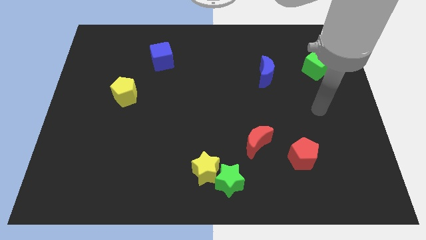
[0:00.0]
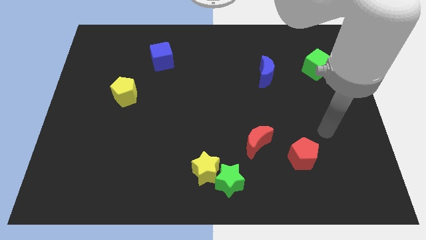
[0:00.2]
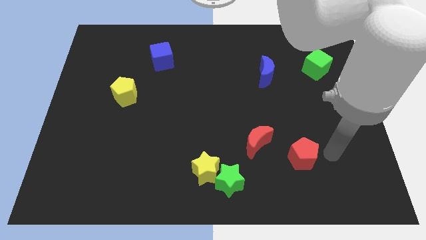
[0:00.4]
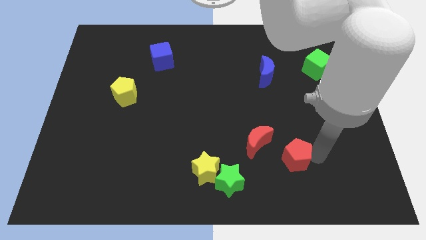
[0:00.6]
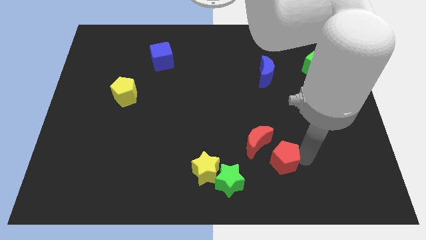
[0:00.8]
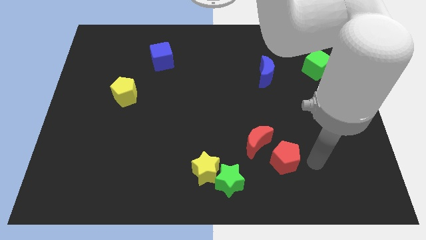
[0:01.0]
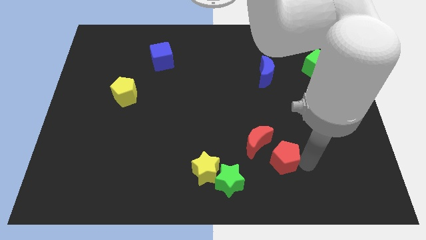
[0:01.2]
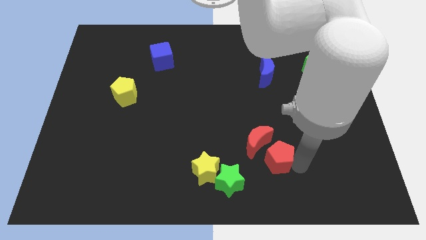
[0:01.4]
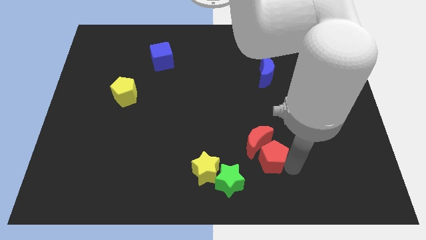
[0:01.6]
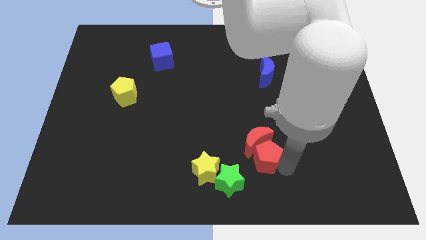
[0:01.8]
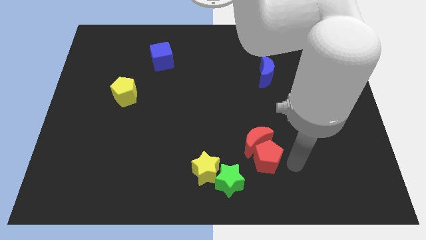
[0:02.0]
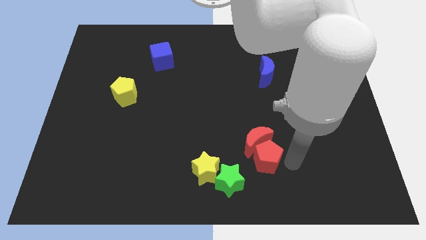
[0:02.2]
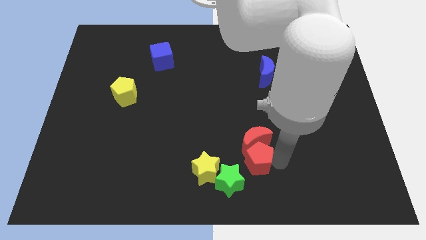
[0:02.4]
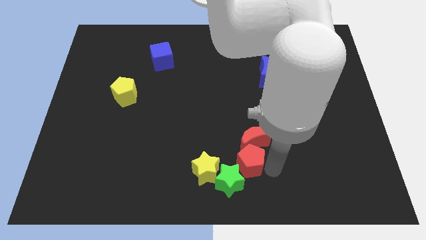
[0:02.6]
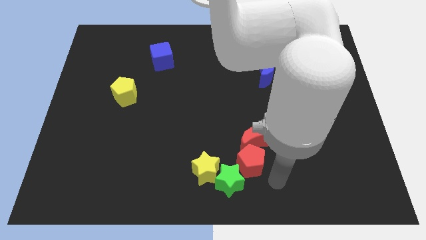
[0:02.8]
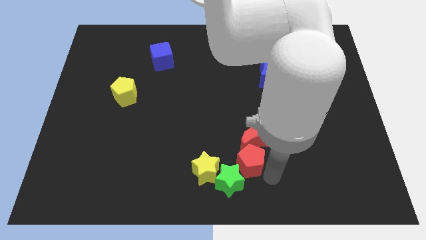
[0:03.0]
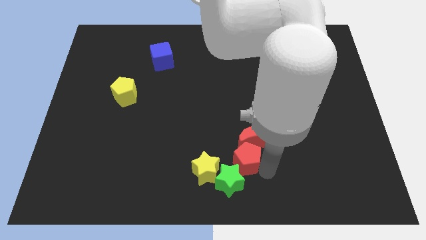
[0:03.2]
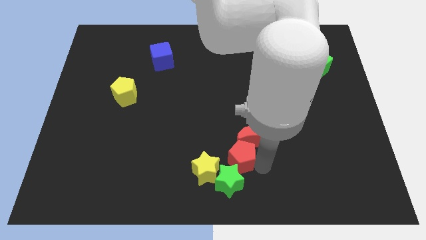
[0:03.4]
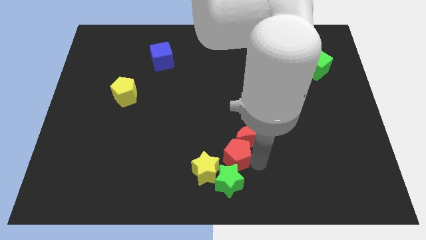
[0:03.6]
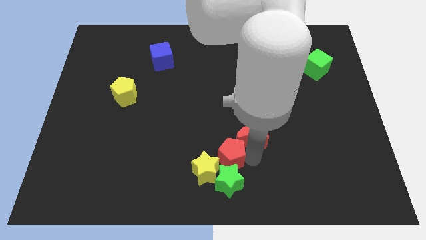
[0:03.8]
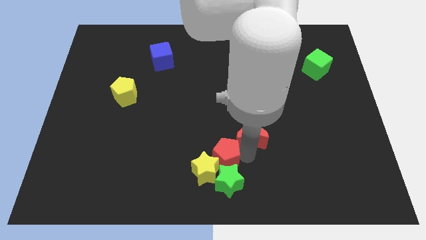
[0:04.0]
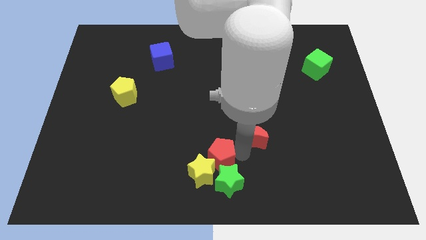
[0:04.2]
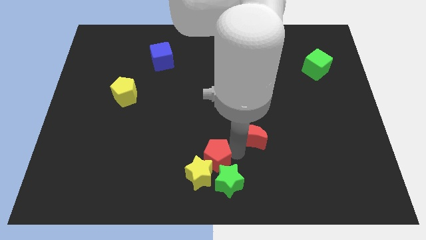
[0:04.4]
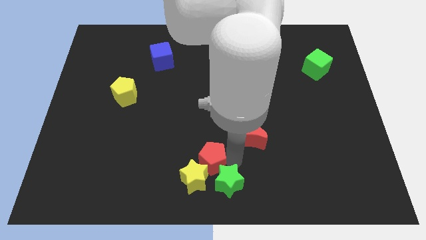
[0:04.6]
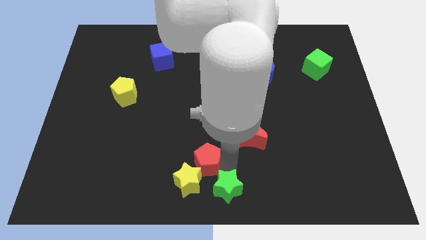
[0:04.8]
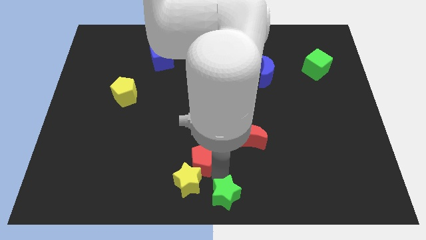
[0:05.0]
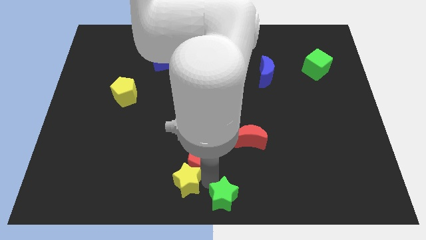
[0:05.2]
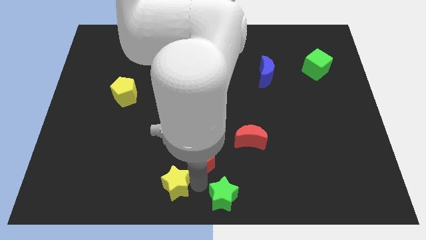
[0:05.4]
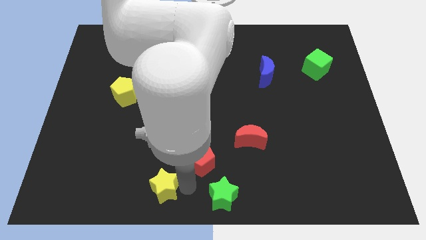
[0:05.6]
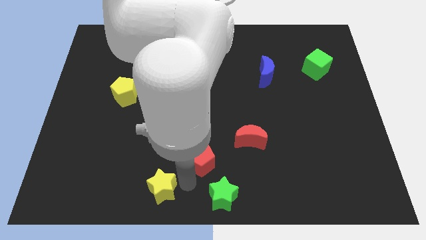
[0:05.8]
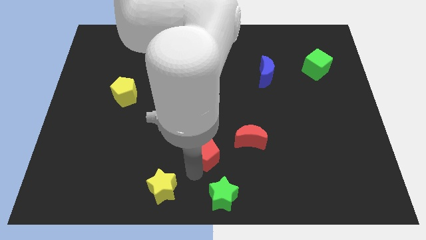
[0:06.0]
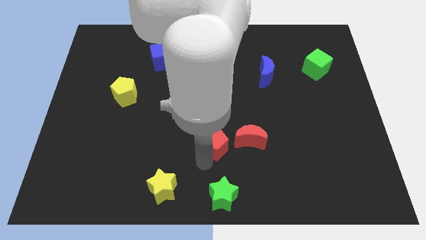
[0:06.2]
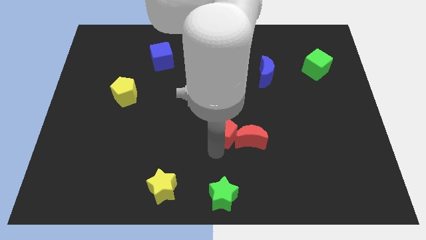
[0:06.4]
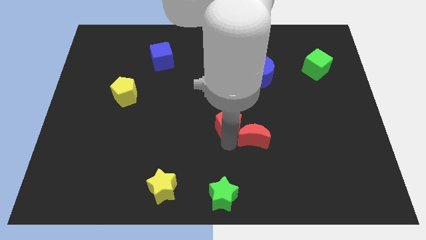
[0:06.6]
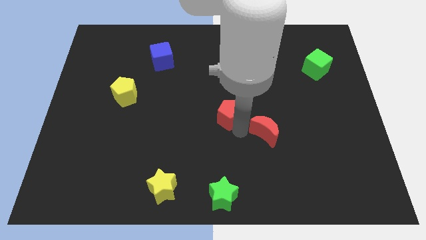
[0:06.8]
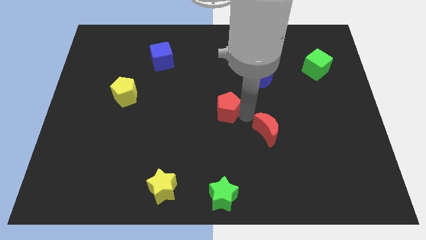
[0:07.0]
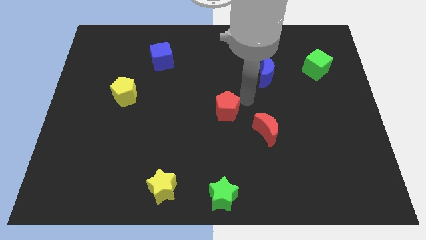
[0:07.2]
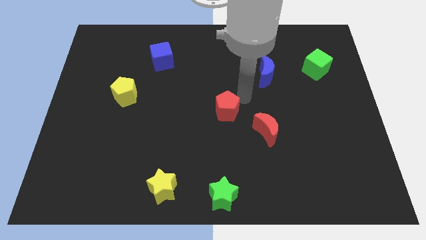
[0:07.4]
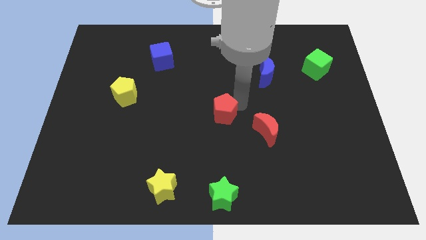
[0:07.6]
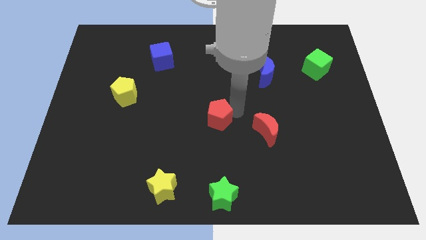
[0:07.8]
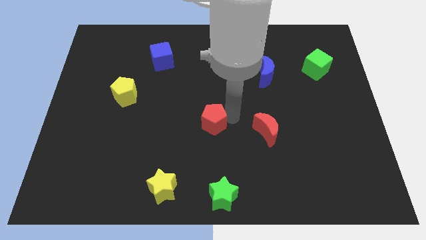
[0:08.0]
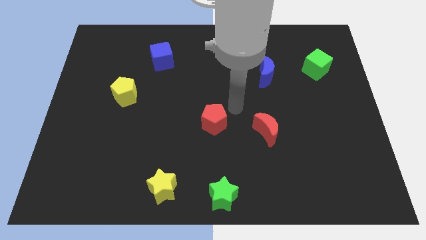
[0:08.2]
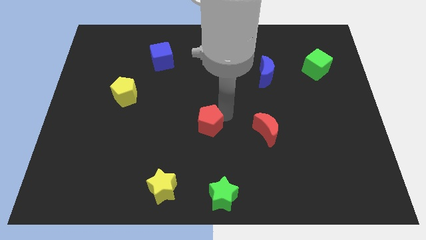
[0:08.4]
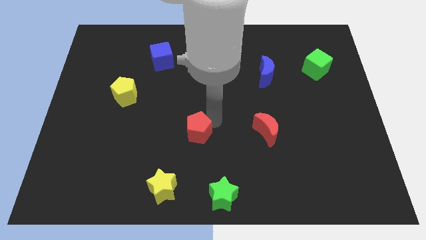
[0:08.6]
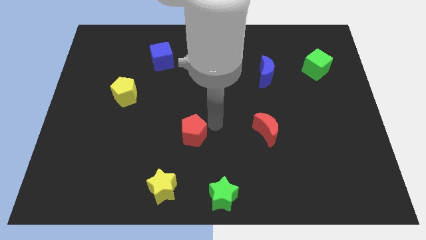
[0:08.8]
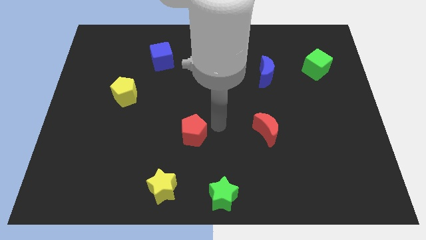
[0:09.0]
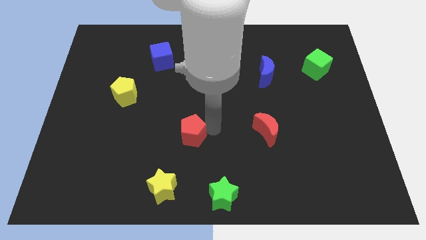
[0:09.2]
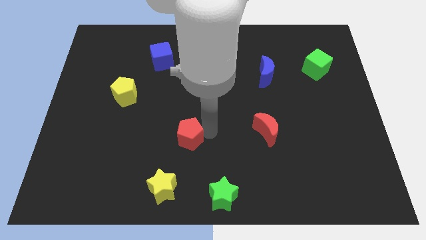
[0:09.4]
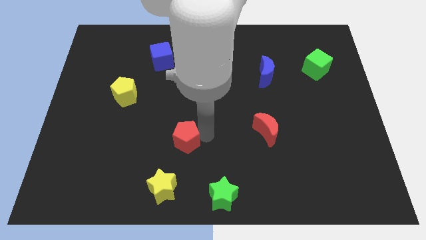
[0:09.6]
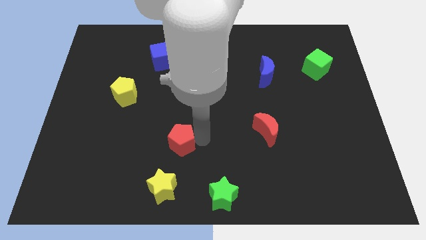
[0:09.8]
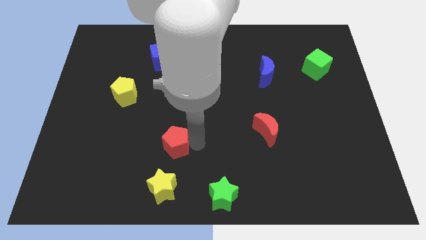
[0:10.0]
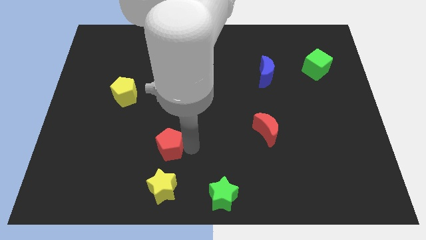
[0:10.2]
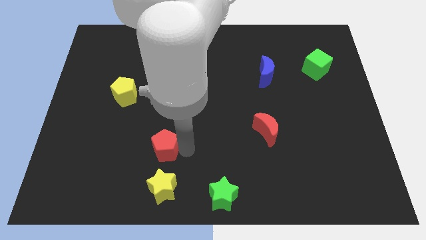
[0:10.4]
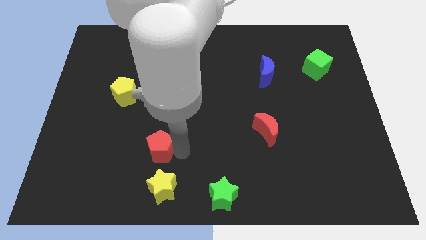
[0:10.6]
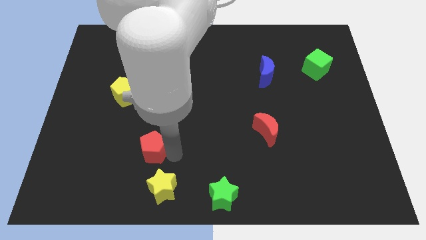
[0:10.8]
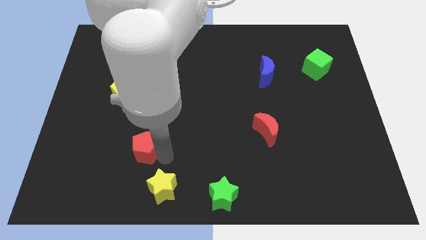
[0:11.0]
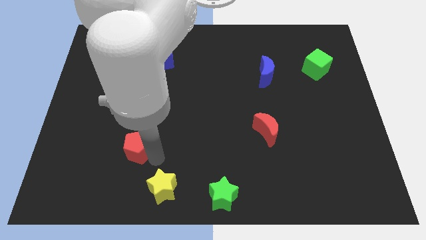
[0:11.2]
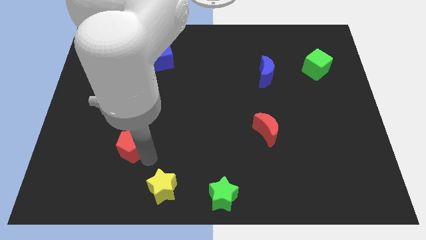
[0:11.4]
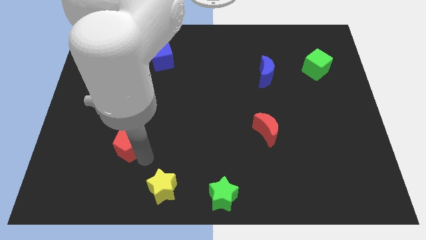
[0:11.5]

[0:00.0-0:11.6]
push the red pentagon to the bottom of the yellow pentagon

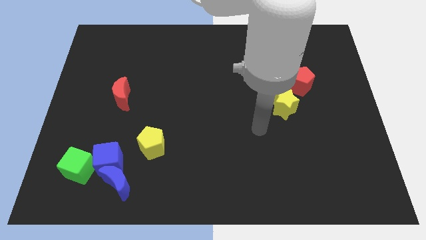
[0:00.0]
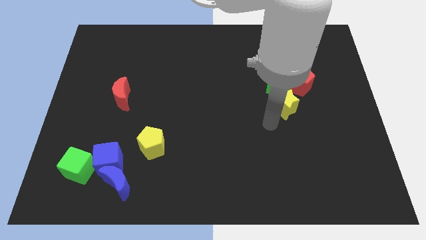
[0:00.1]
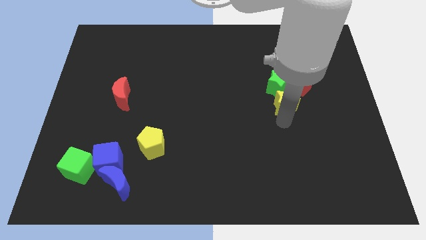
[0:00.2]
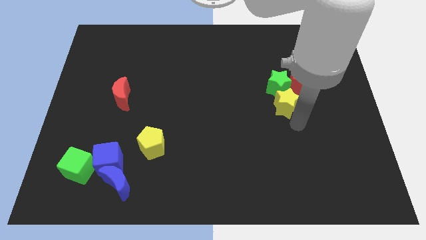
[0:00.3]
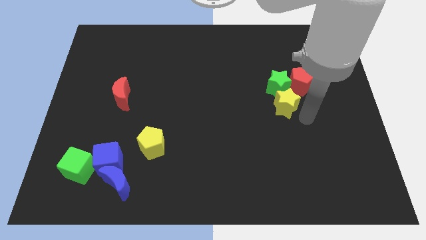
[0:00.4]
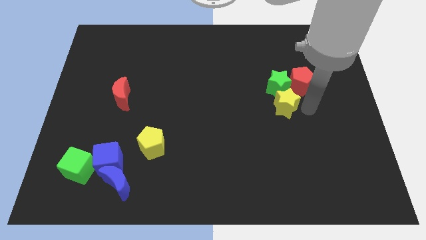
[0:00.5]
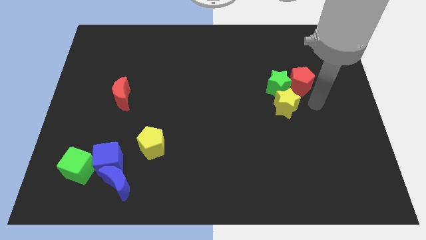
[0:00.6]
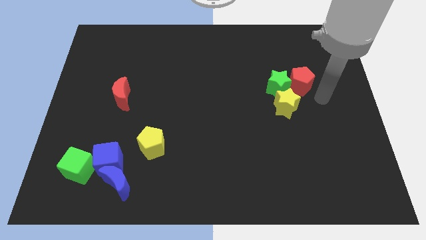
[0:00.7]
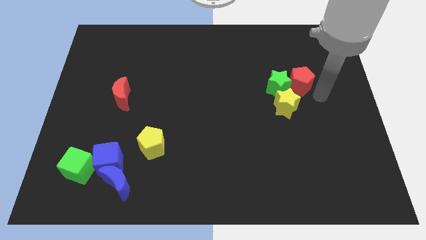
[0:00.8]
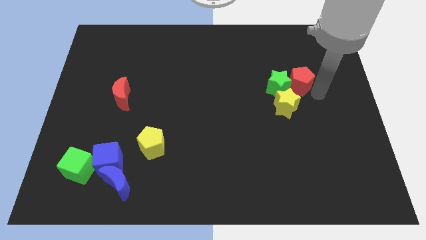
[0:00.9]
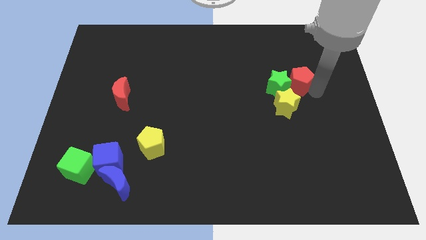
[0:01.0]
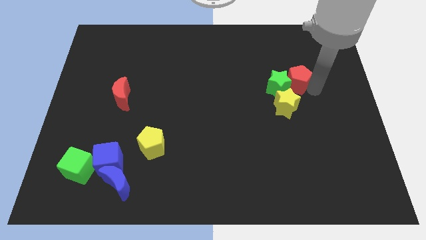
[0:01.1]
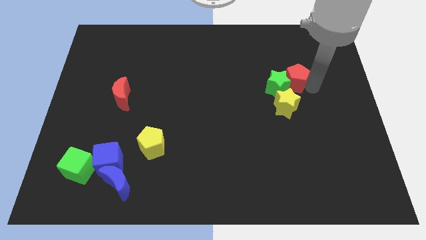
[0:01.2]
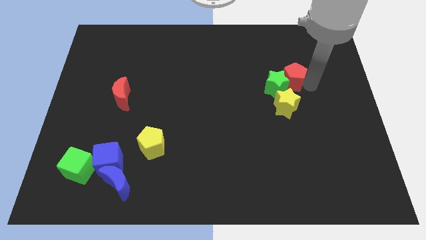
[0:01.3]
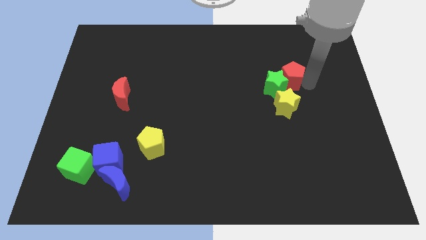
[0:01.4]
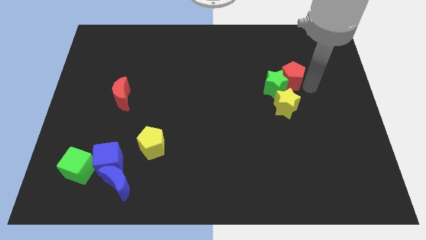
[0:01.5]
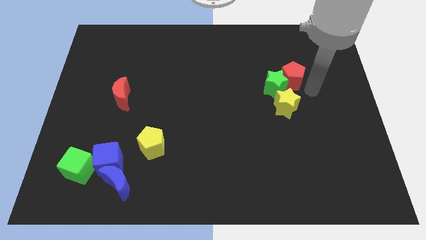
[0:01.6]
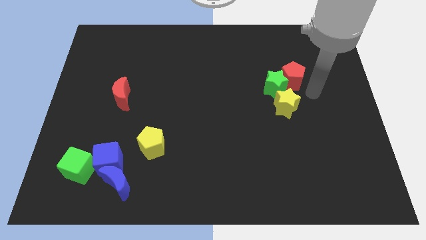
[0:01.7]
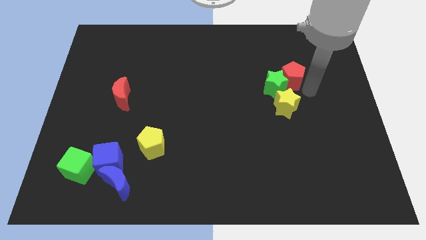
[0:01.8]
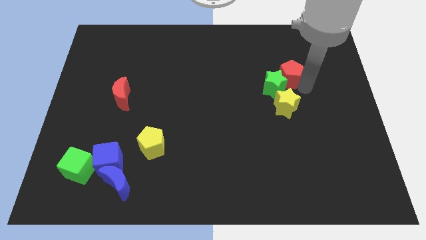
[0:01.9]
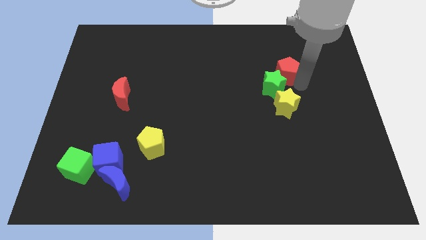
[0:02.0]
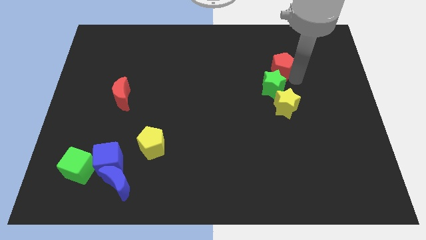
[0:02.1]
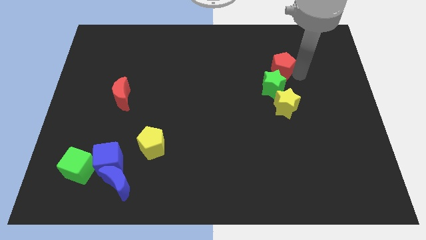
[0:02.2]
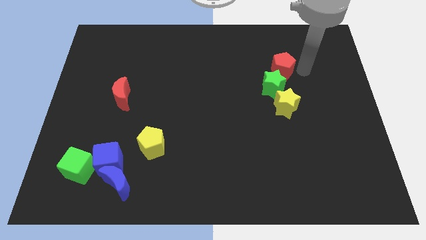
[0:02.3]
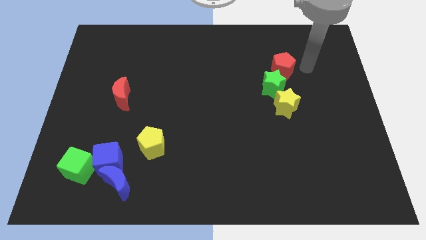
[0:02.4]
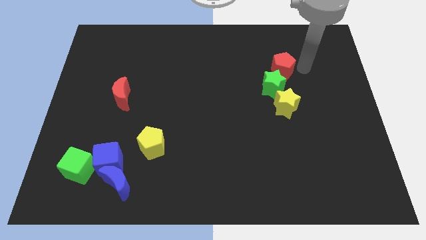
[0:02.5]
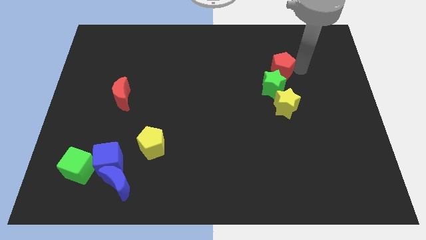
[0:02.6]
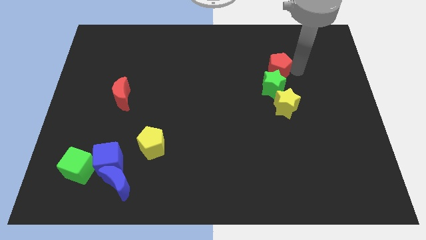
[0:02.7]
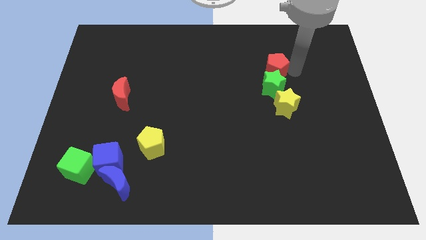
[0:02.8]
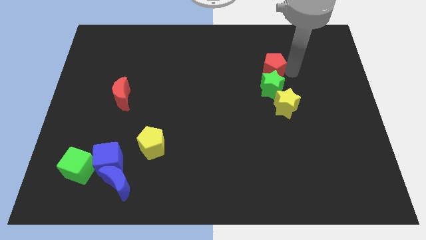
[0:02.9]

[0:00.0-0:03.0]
slide the red pentagon to the top left side of the green star
